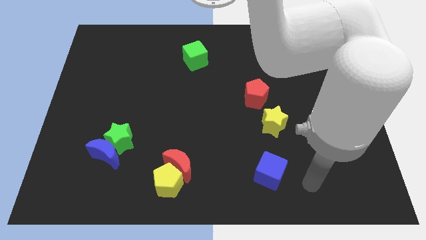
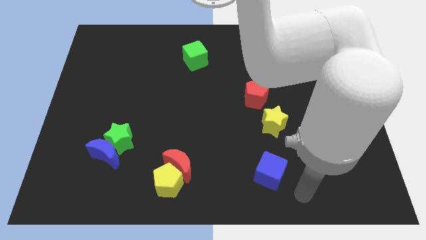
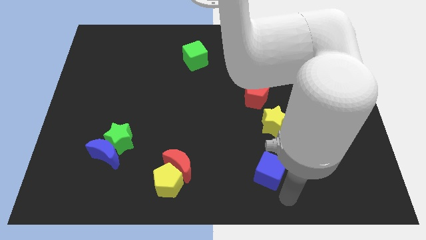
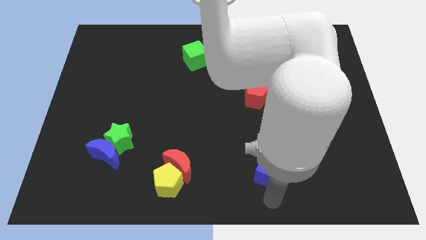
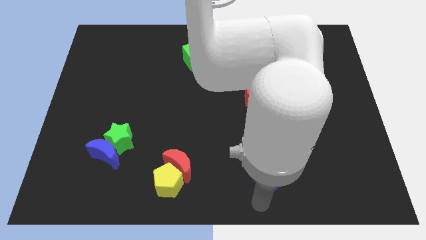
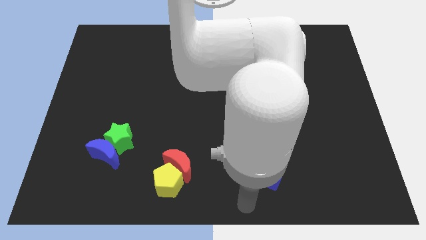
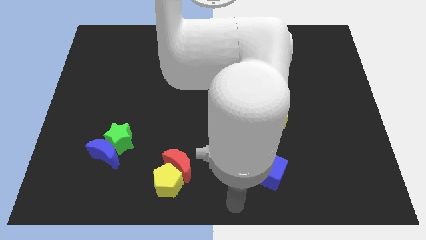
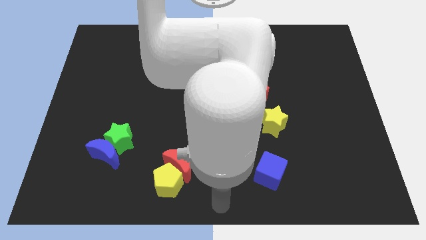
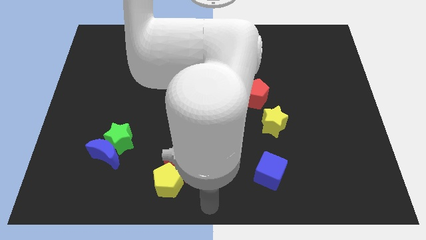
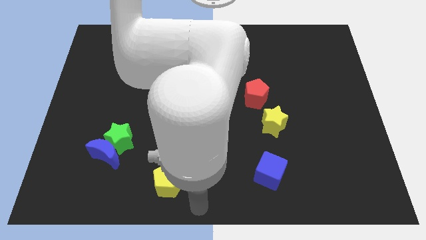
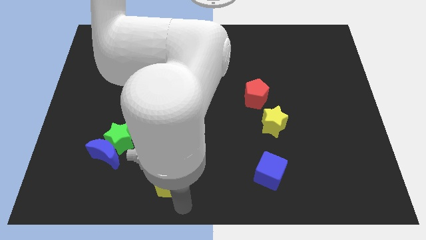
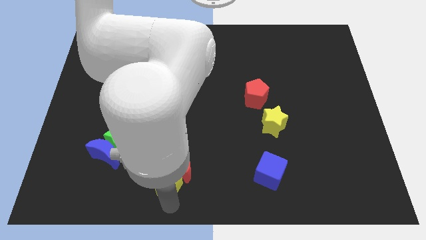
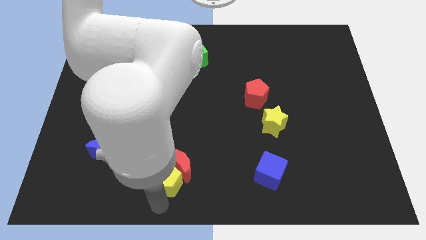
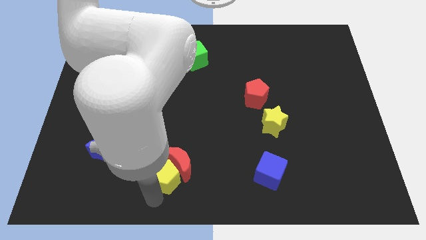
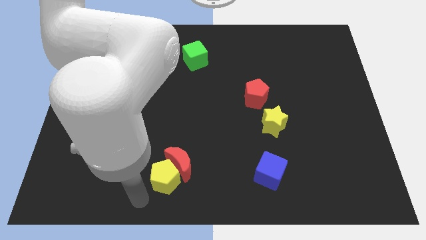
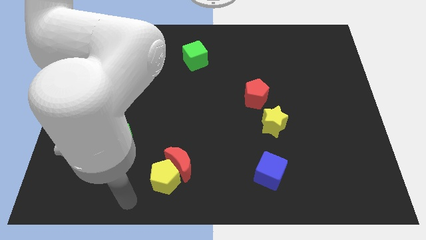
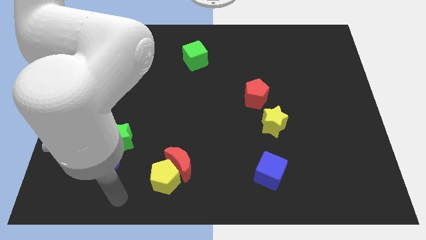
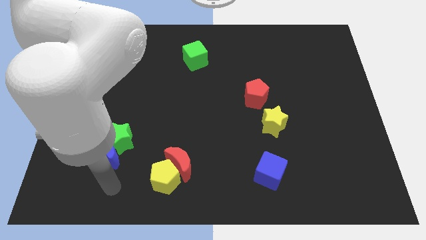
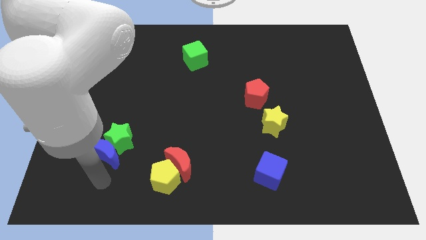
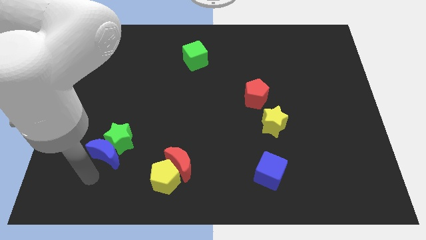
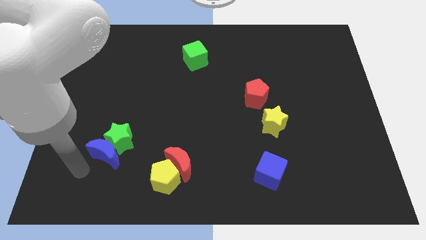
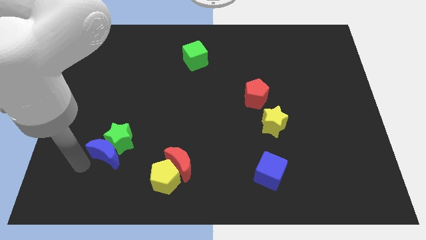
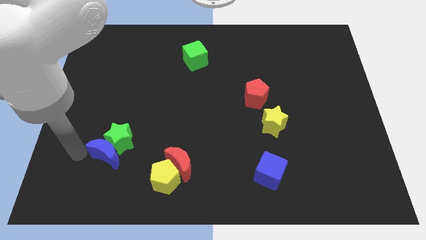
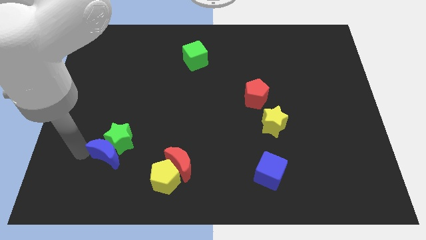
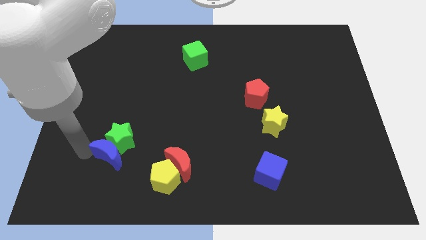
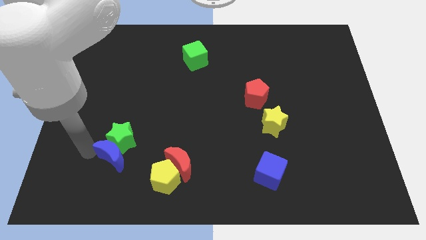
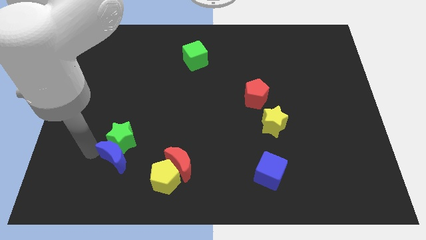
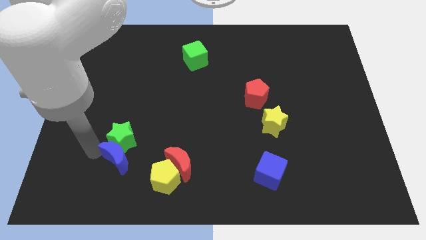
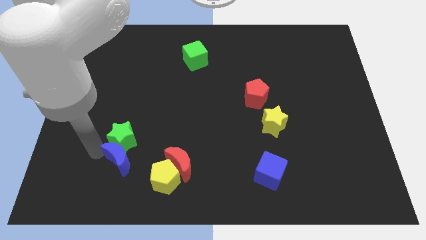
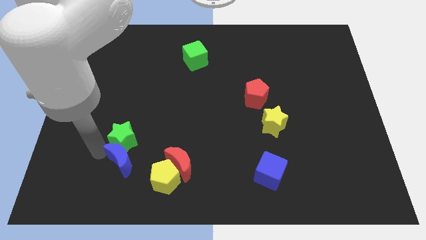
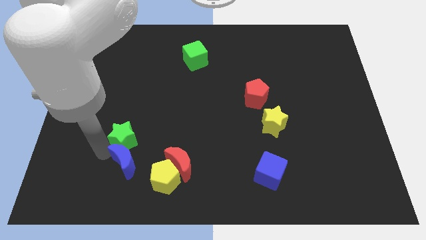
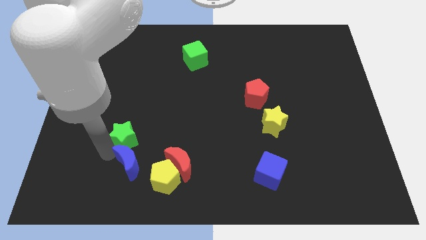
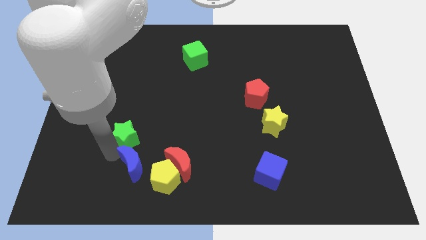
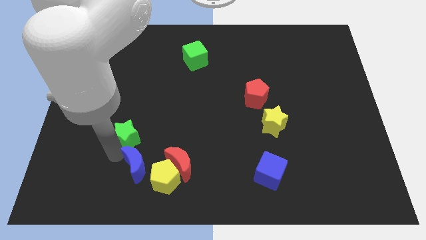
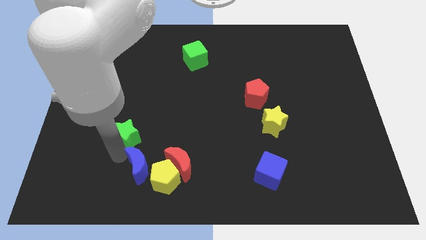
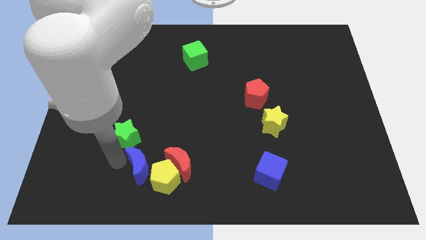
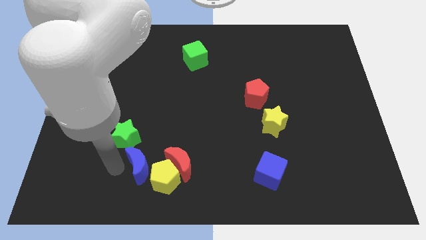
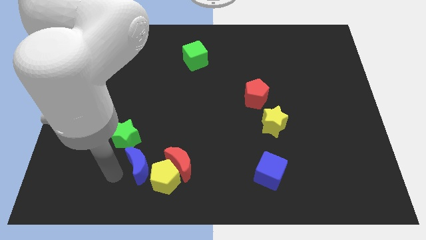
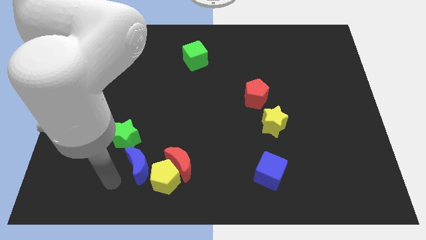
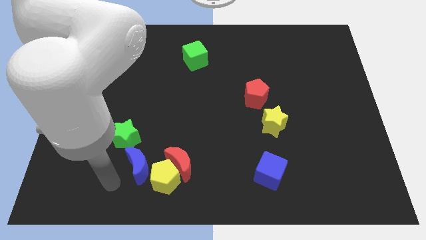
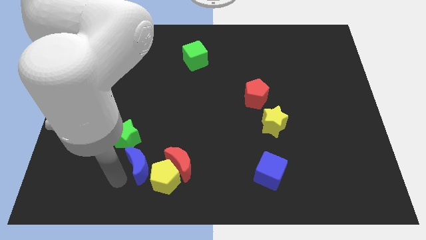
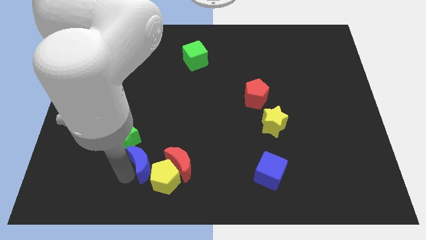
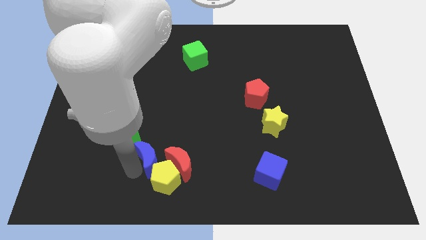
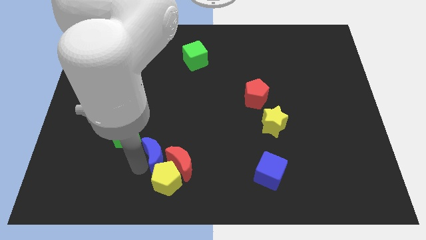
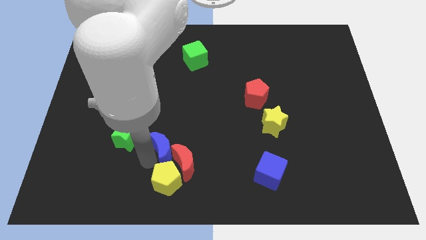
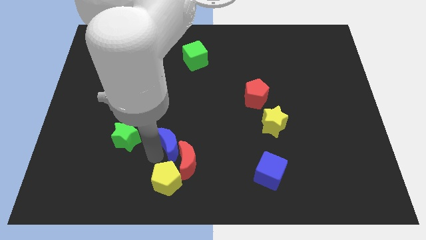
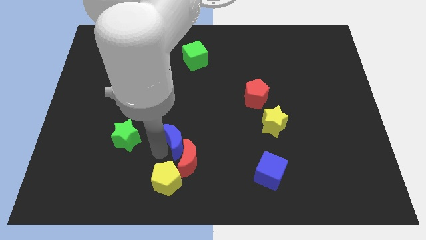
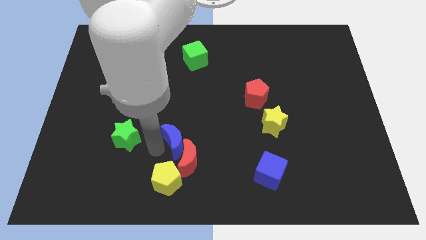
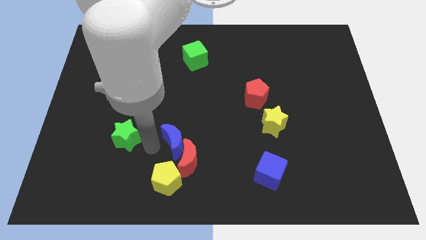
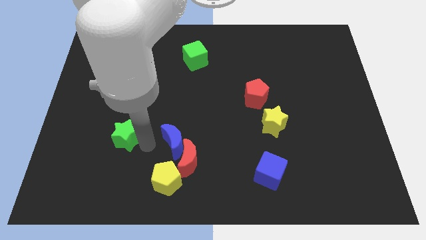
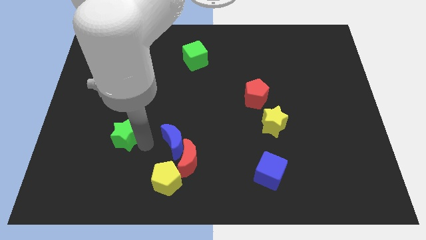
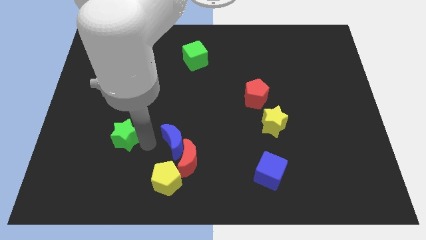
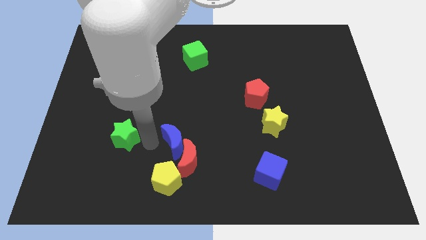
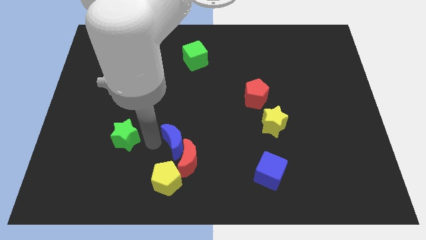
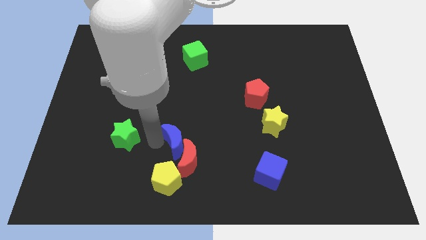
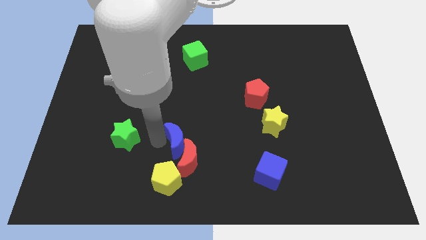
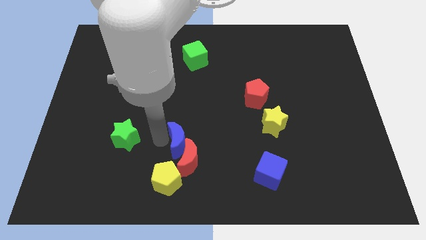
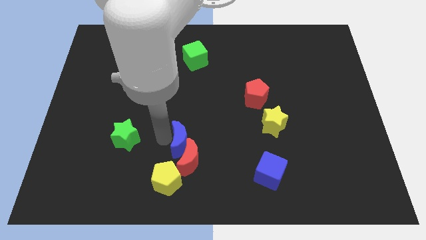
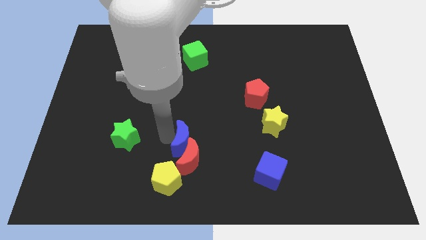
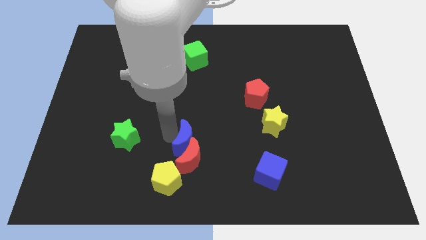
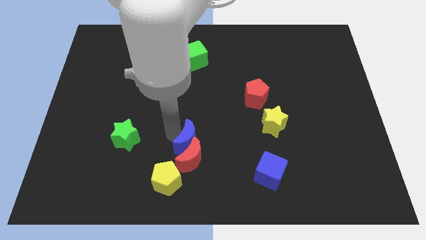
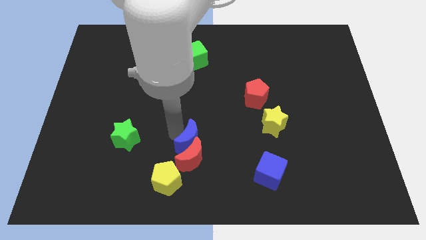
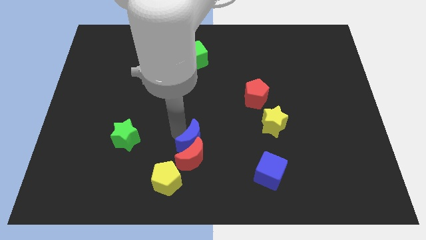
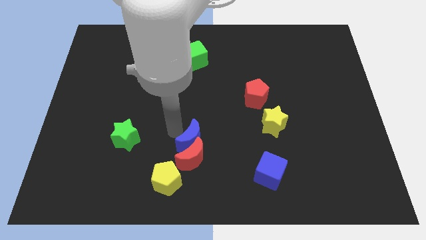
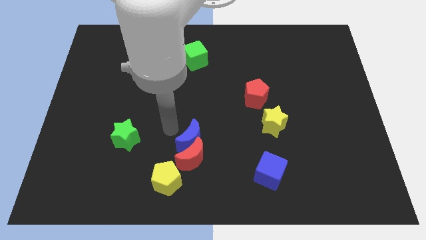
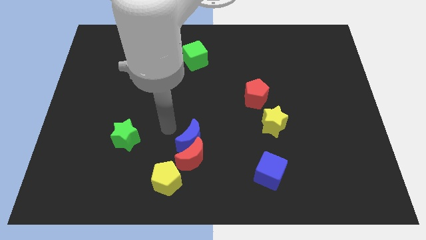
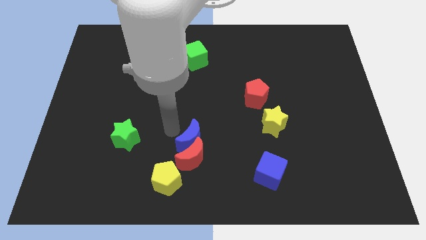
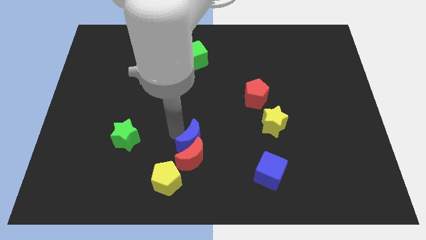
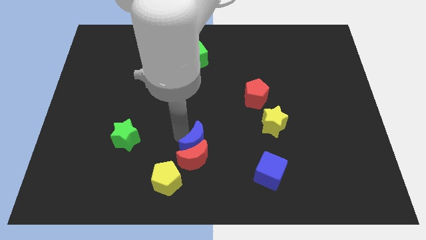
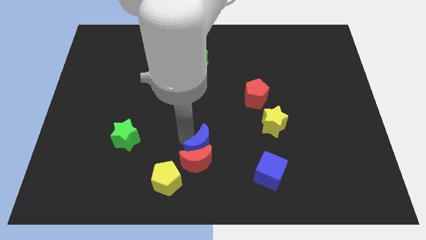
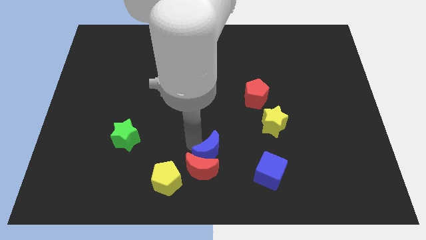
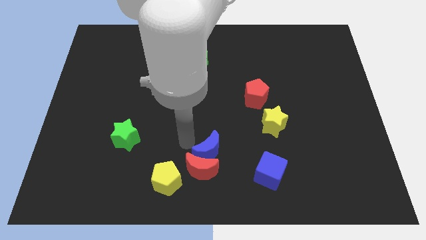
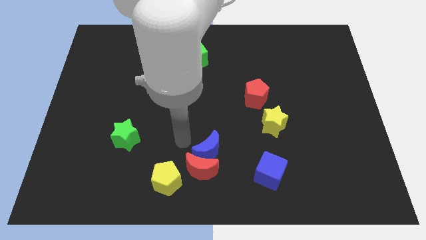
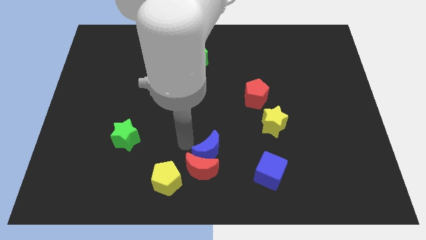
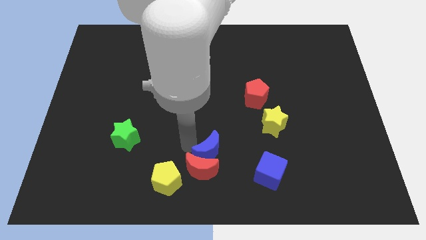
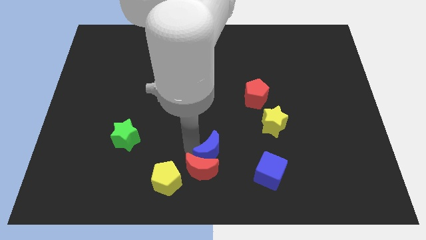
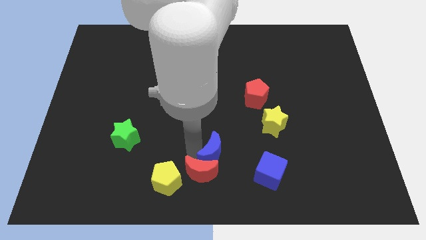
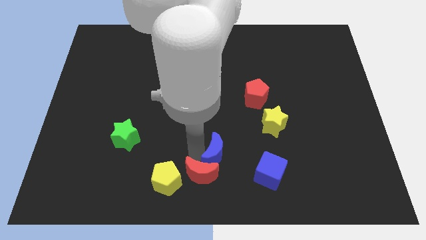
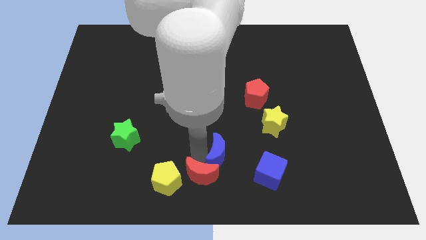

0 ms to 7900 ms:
push the blue moon to the right of the red moon
